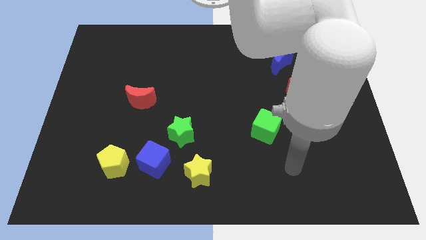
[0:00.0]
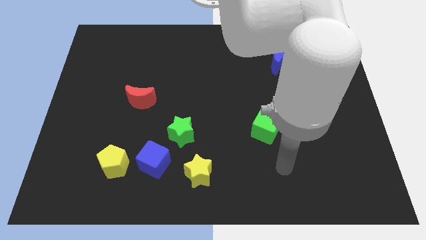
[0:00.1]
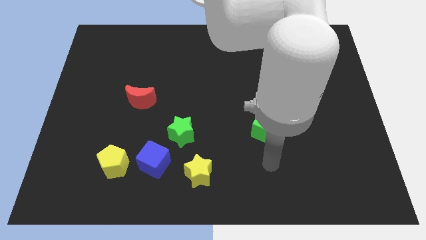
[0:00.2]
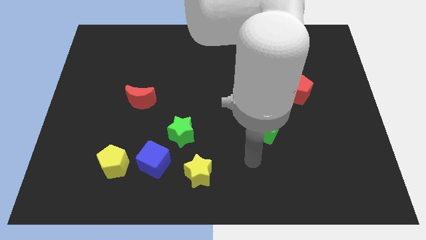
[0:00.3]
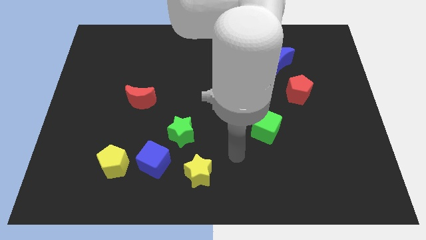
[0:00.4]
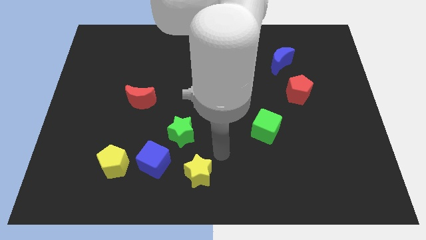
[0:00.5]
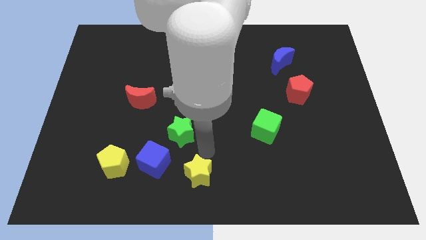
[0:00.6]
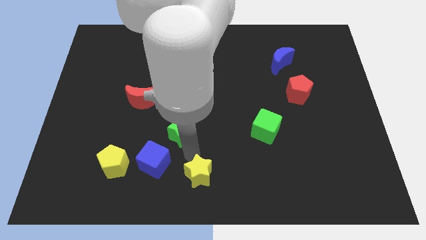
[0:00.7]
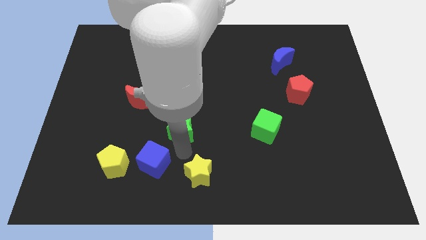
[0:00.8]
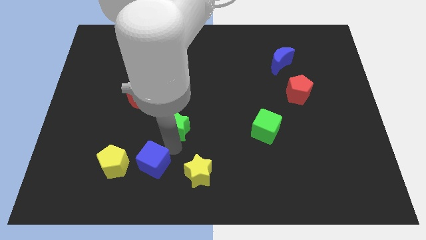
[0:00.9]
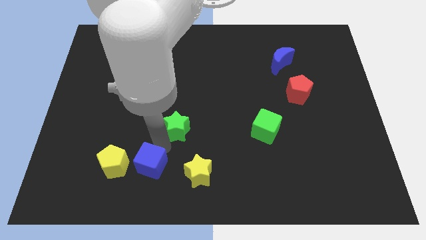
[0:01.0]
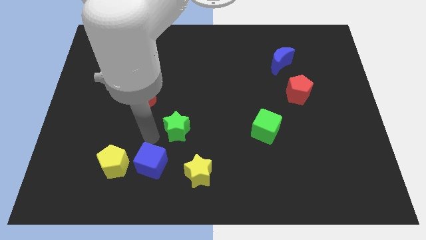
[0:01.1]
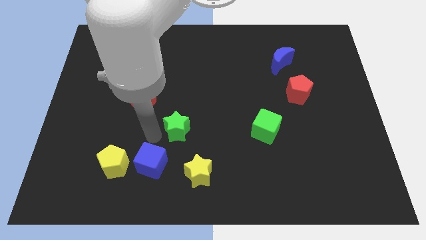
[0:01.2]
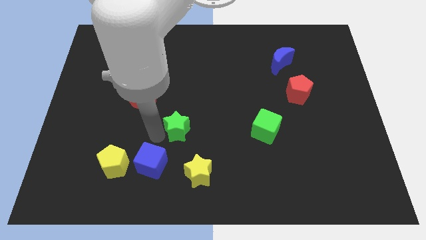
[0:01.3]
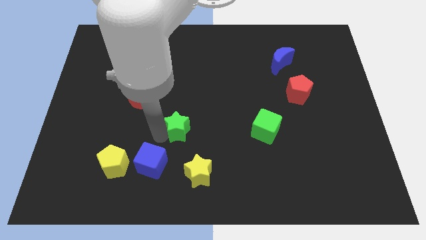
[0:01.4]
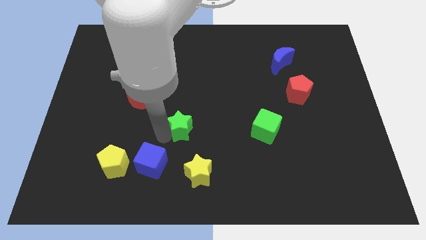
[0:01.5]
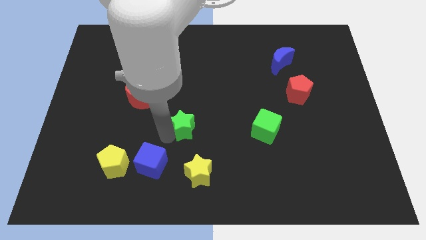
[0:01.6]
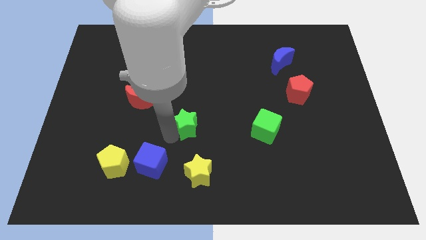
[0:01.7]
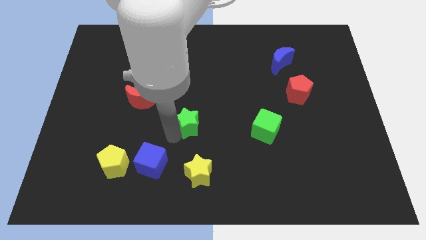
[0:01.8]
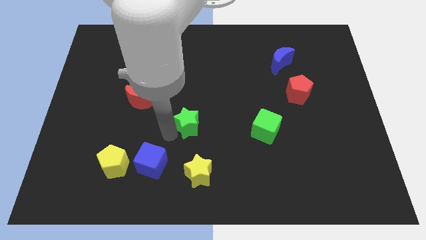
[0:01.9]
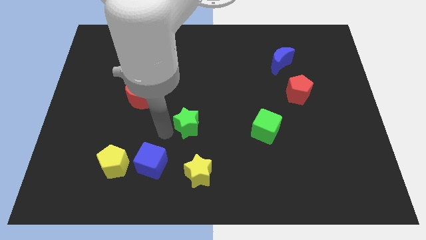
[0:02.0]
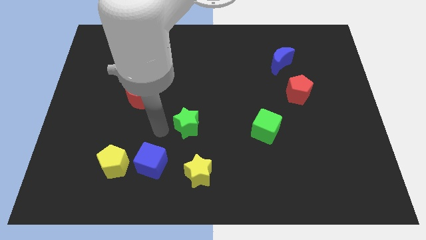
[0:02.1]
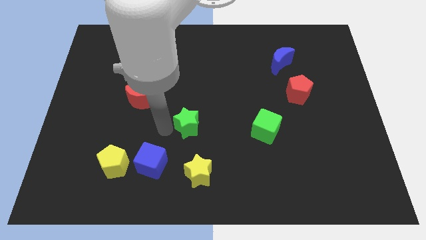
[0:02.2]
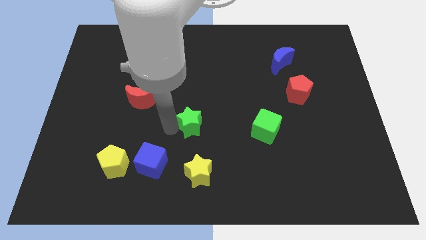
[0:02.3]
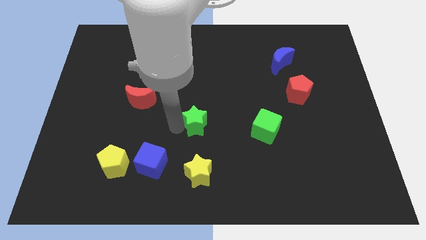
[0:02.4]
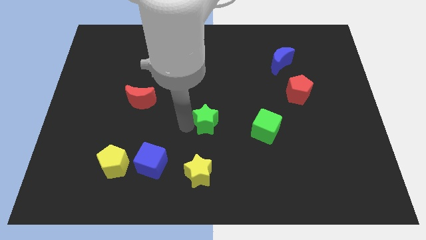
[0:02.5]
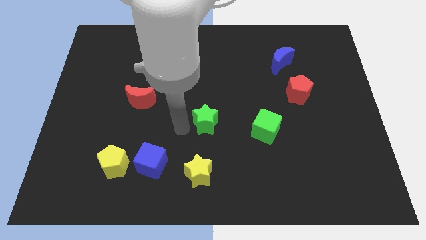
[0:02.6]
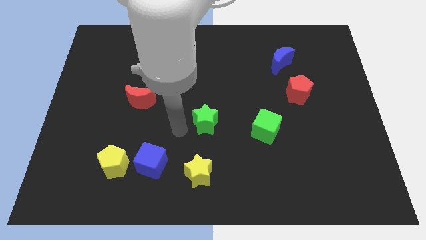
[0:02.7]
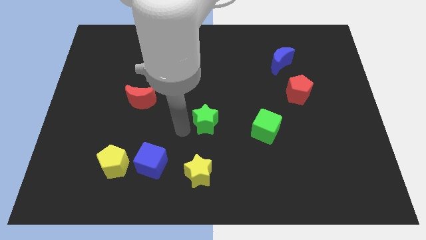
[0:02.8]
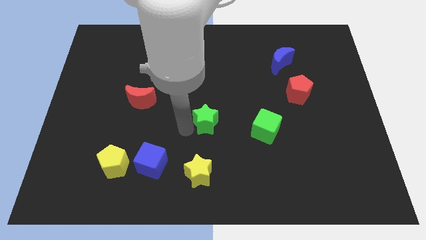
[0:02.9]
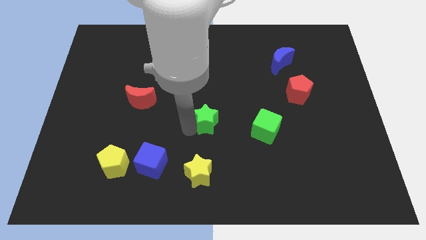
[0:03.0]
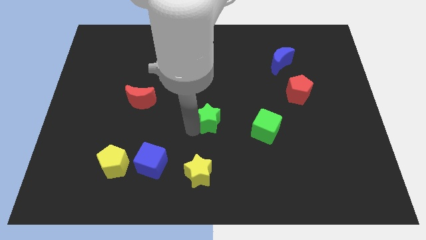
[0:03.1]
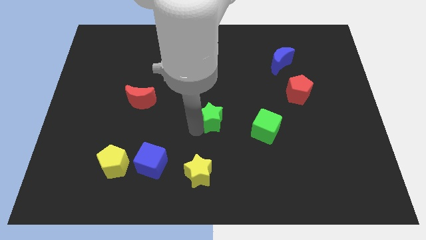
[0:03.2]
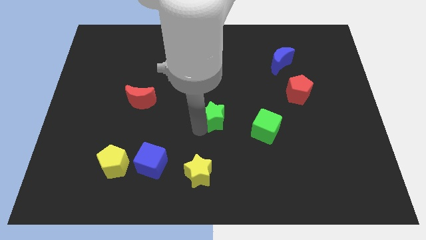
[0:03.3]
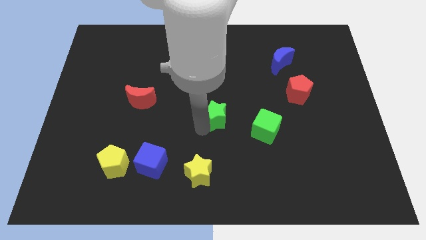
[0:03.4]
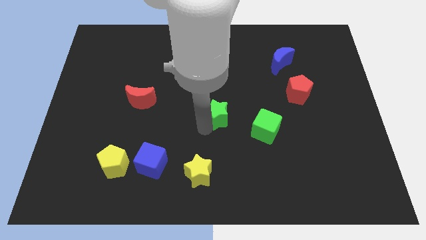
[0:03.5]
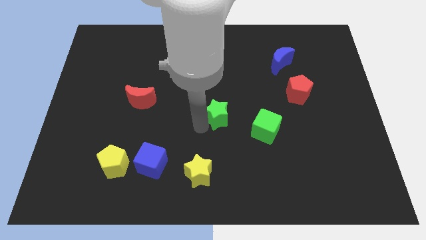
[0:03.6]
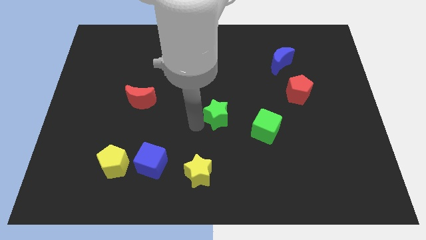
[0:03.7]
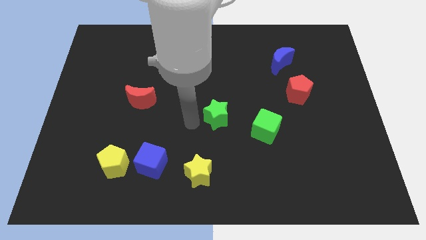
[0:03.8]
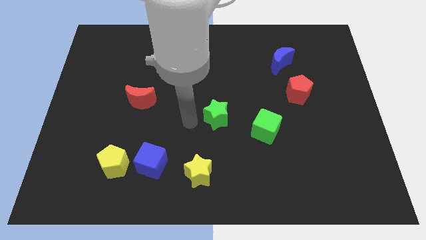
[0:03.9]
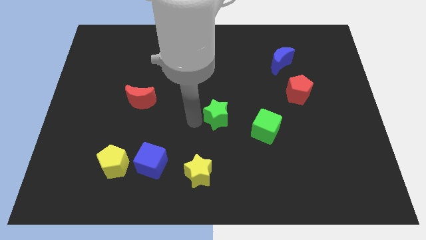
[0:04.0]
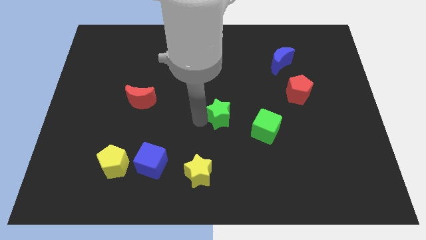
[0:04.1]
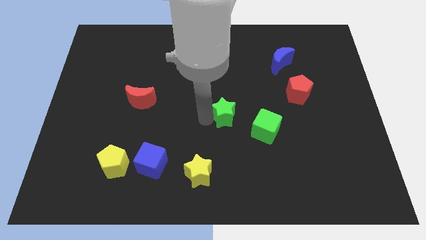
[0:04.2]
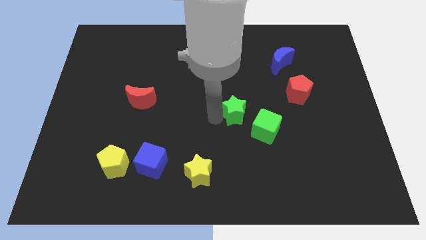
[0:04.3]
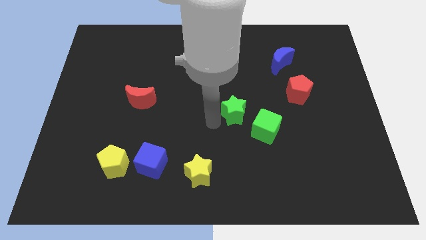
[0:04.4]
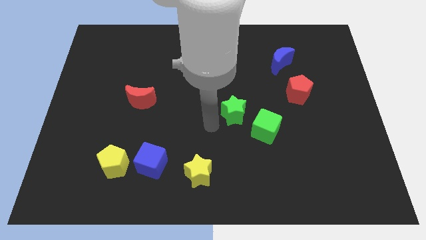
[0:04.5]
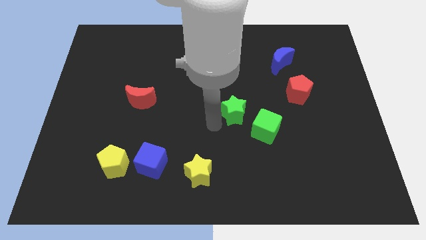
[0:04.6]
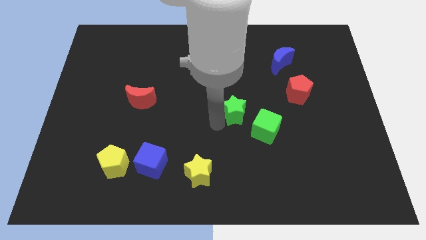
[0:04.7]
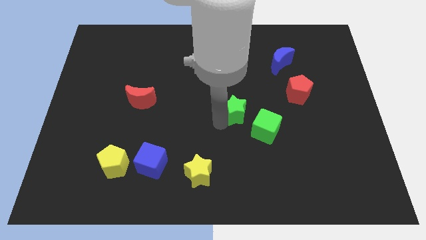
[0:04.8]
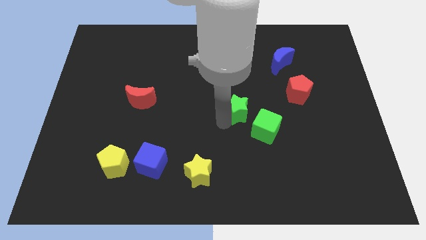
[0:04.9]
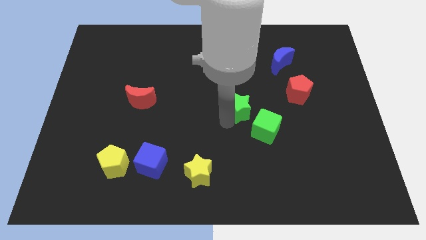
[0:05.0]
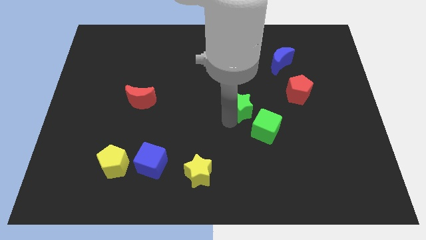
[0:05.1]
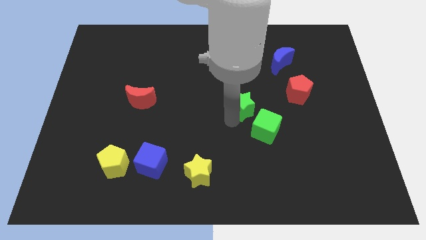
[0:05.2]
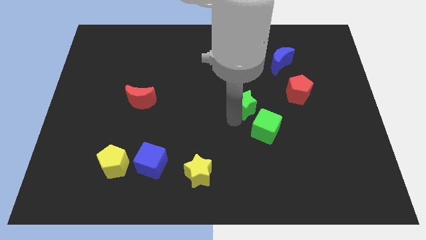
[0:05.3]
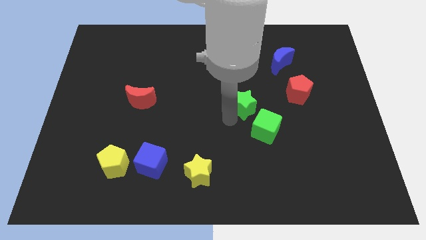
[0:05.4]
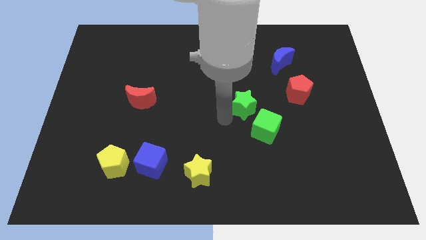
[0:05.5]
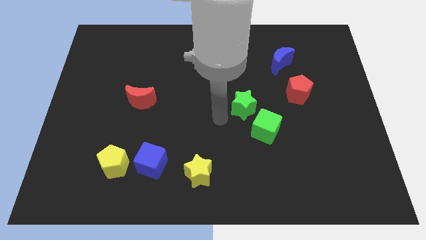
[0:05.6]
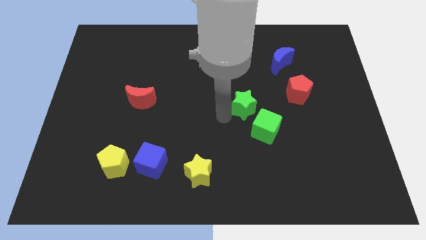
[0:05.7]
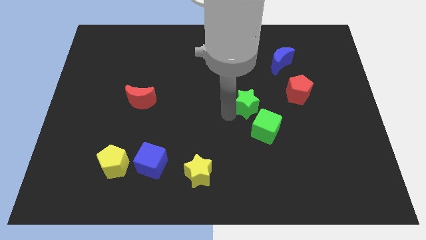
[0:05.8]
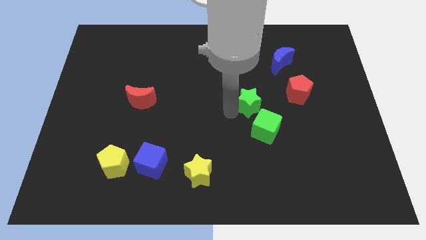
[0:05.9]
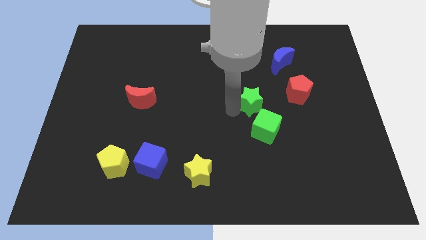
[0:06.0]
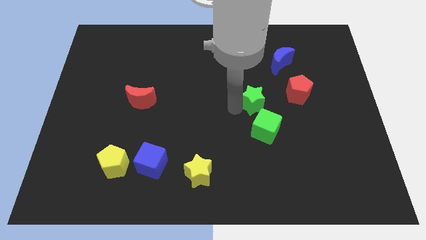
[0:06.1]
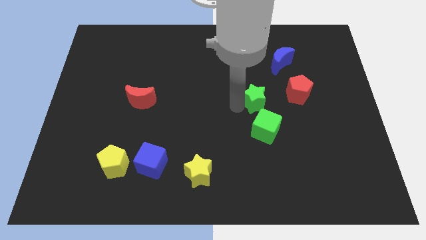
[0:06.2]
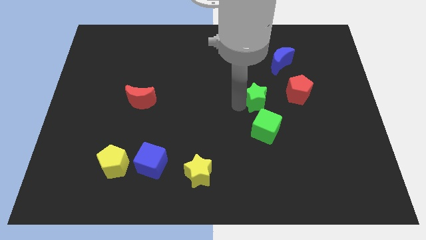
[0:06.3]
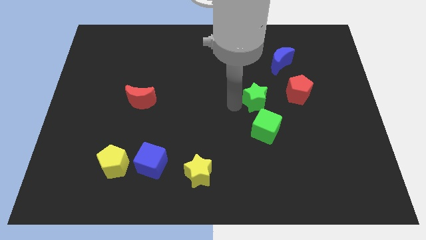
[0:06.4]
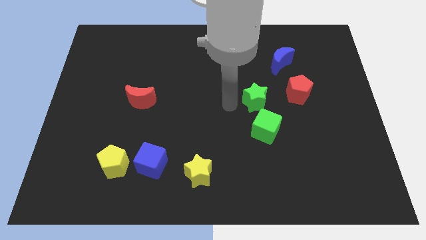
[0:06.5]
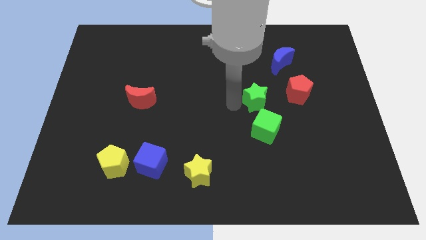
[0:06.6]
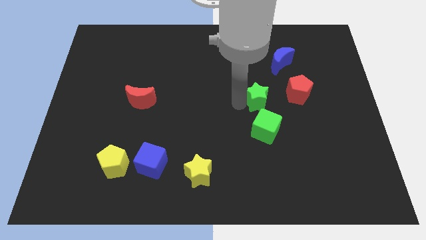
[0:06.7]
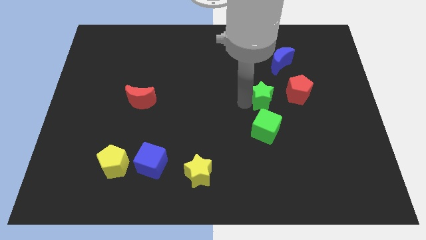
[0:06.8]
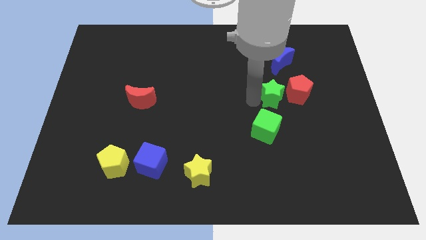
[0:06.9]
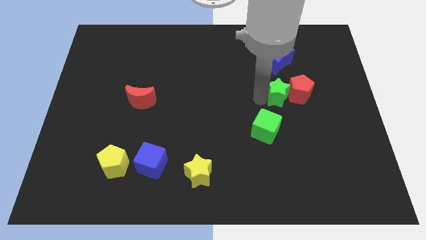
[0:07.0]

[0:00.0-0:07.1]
move the green star to the red pentagon

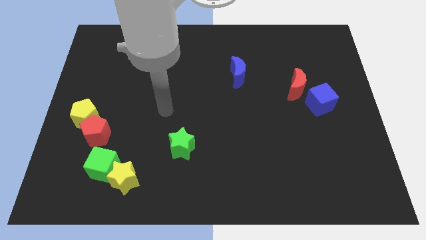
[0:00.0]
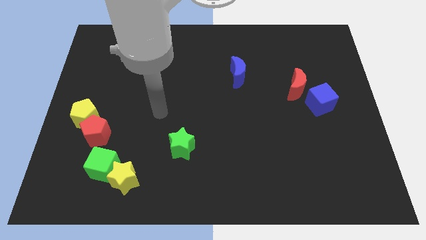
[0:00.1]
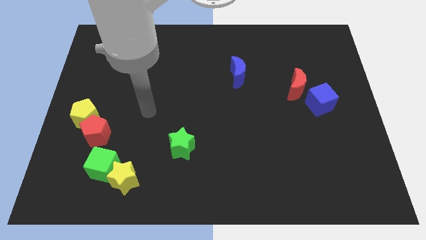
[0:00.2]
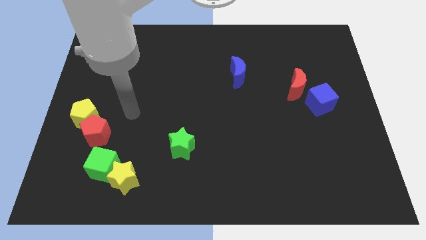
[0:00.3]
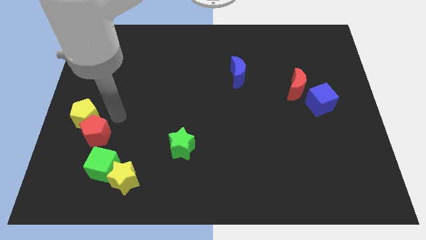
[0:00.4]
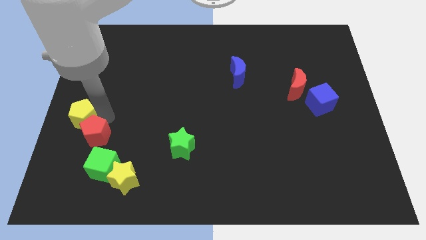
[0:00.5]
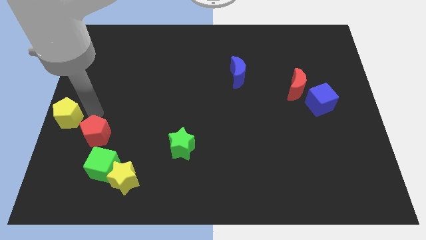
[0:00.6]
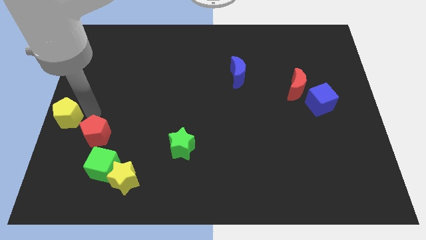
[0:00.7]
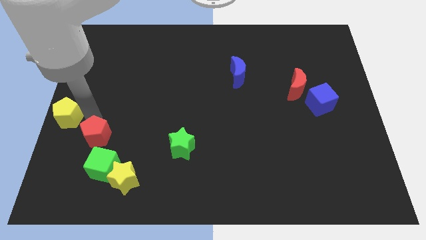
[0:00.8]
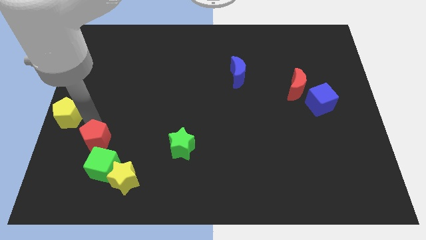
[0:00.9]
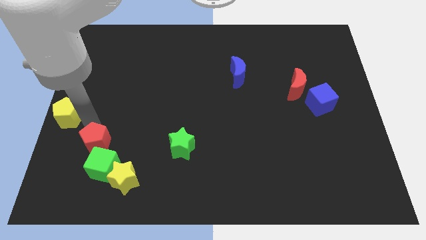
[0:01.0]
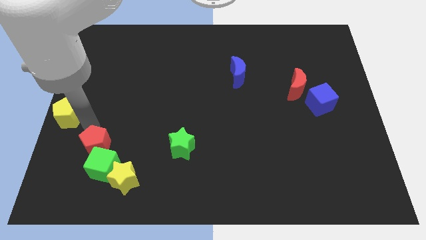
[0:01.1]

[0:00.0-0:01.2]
put the red pentagon next to the green cube
